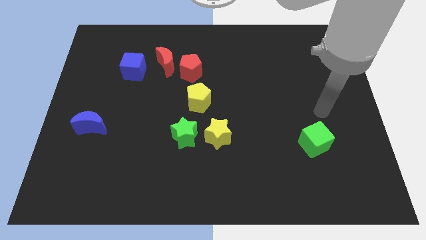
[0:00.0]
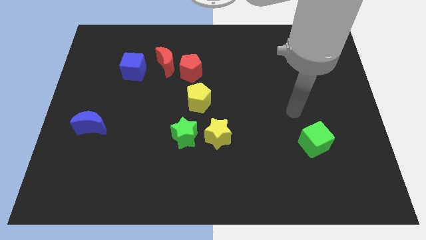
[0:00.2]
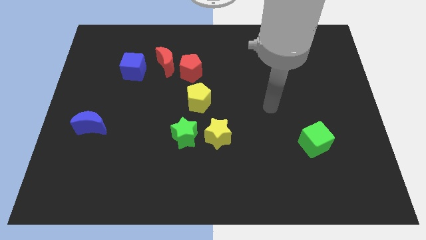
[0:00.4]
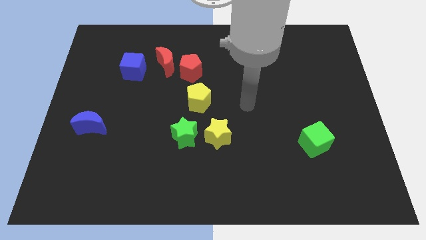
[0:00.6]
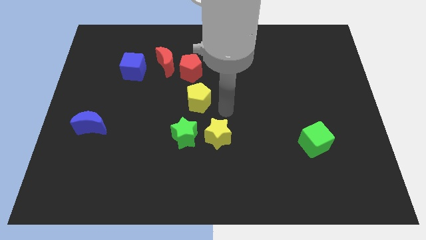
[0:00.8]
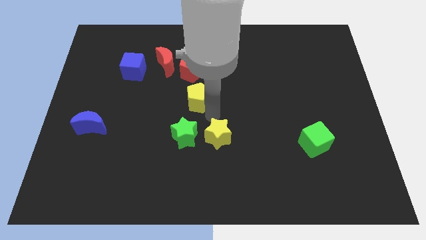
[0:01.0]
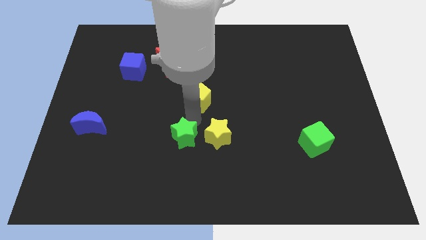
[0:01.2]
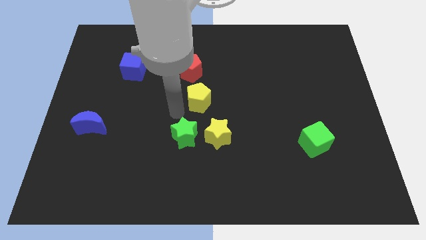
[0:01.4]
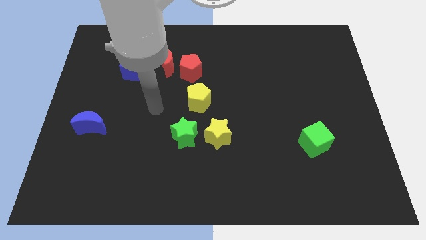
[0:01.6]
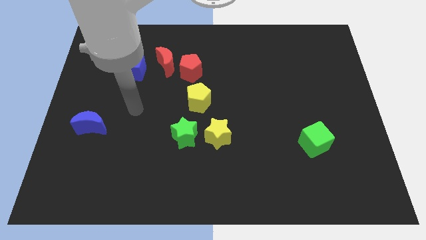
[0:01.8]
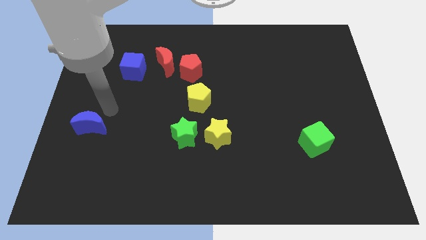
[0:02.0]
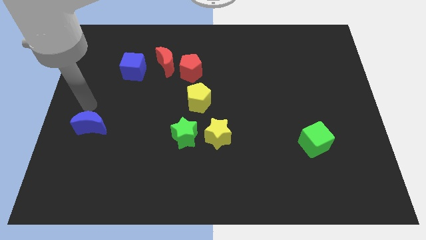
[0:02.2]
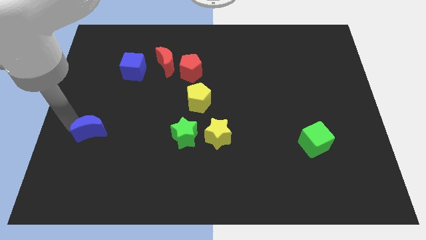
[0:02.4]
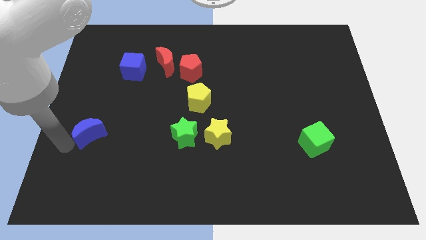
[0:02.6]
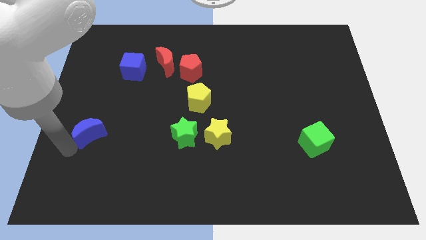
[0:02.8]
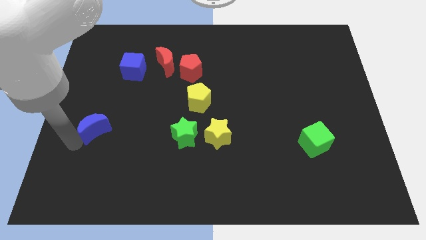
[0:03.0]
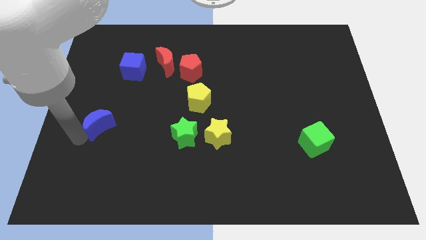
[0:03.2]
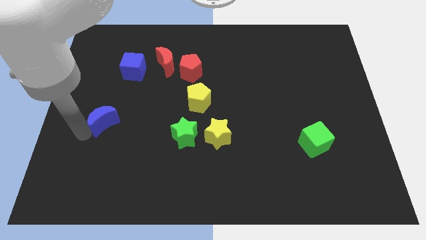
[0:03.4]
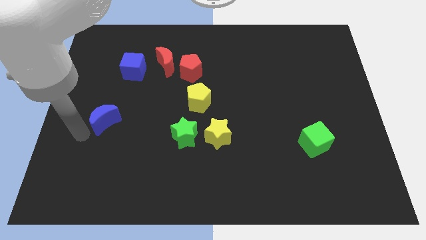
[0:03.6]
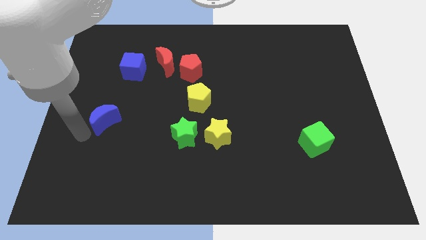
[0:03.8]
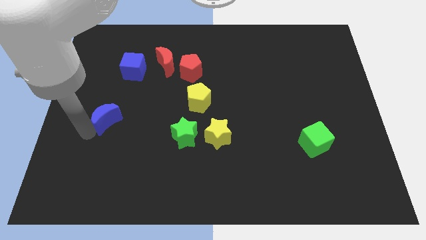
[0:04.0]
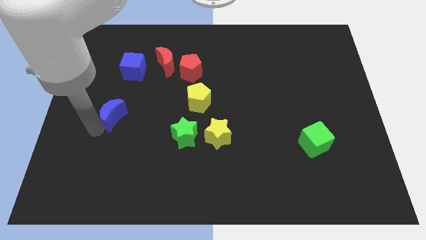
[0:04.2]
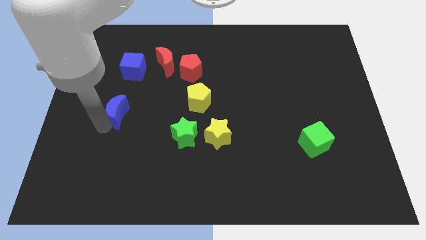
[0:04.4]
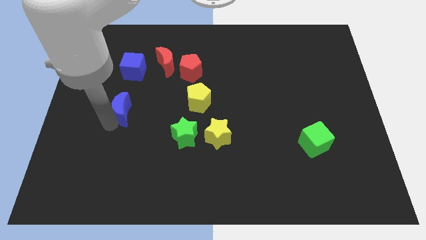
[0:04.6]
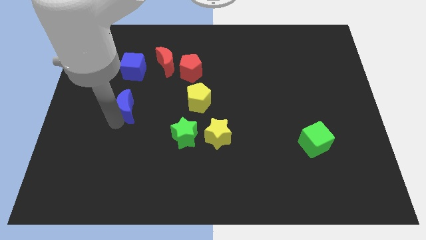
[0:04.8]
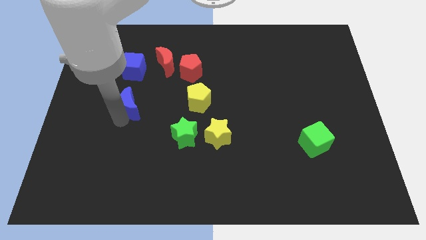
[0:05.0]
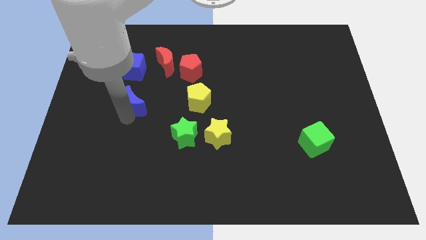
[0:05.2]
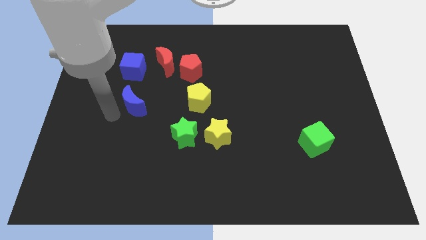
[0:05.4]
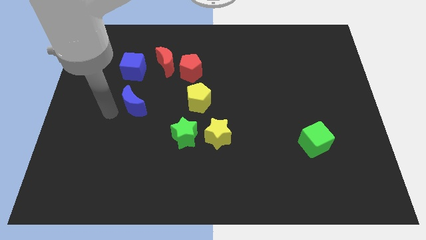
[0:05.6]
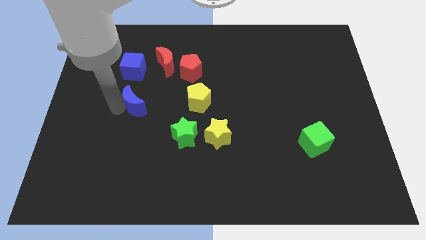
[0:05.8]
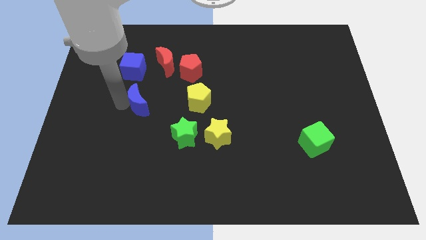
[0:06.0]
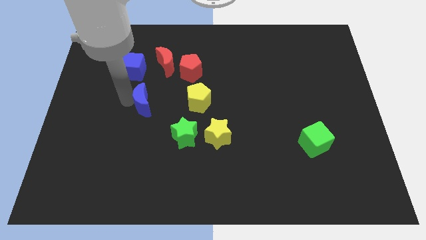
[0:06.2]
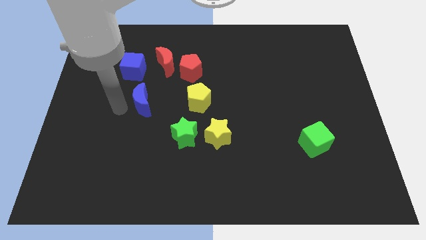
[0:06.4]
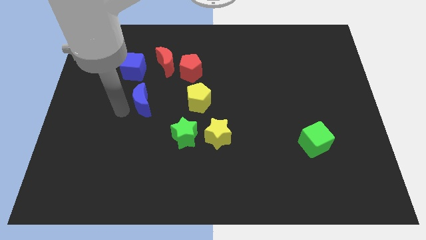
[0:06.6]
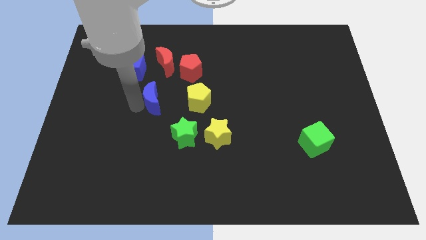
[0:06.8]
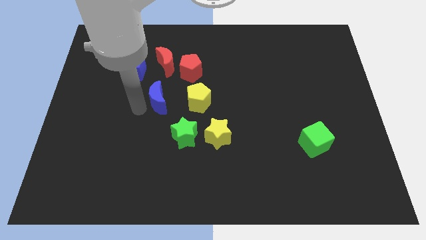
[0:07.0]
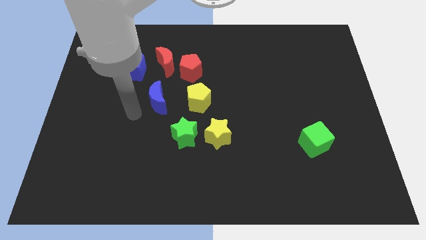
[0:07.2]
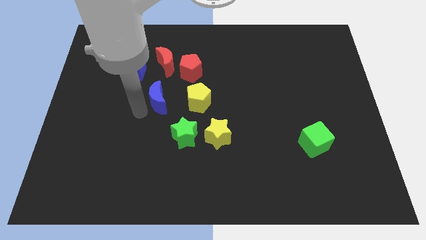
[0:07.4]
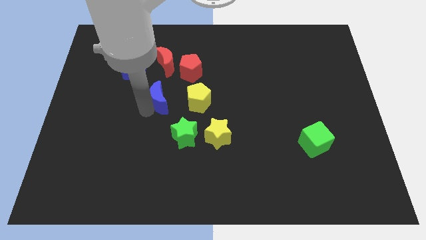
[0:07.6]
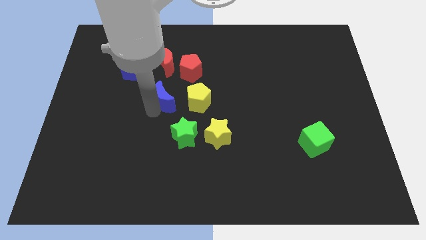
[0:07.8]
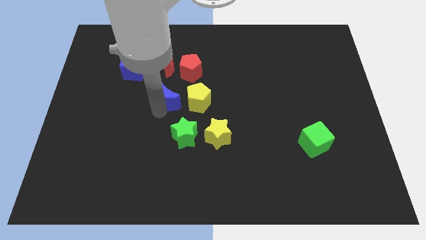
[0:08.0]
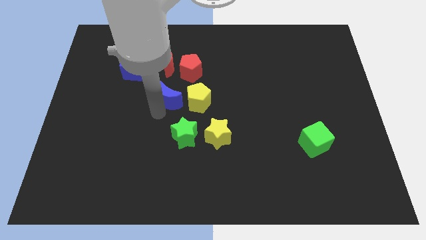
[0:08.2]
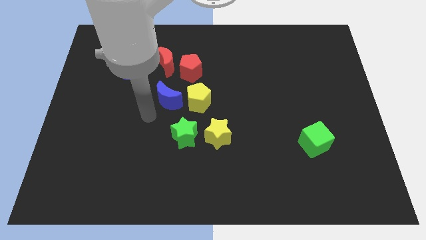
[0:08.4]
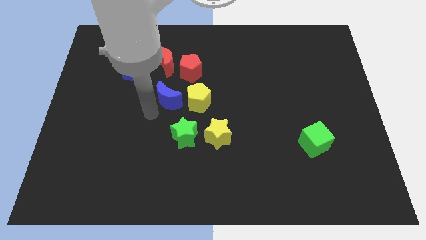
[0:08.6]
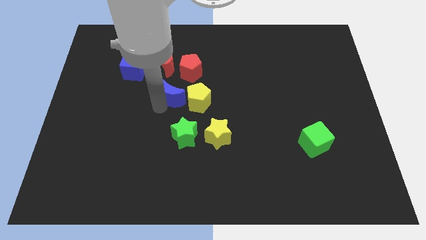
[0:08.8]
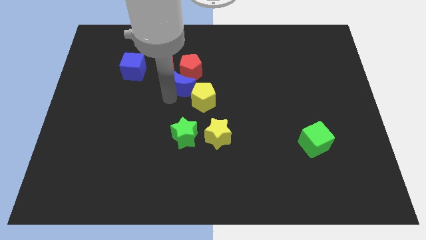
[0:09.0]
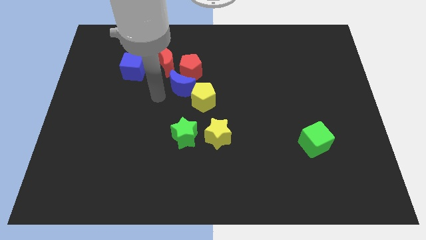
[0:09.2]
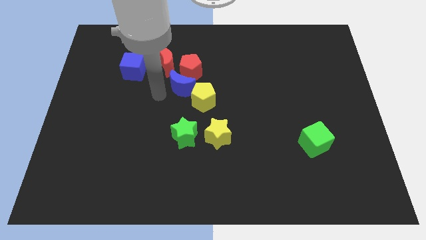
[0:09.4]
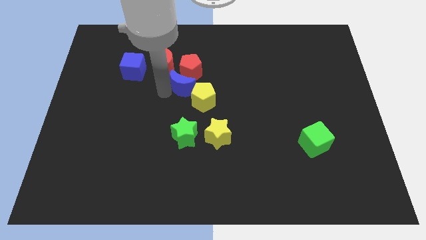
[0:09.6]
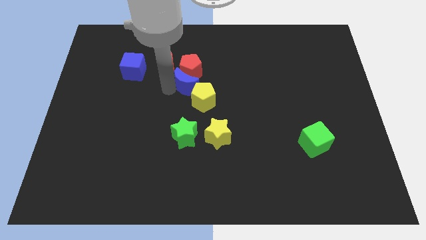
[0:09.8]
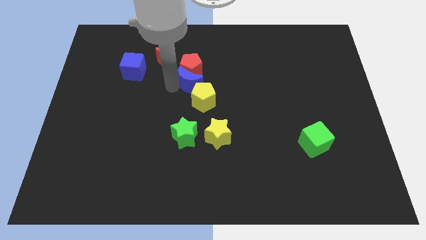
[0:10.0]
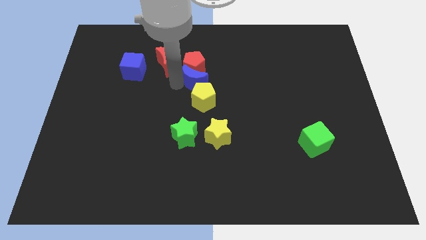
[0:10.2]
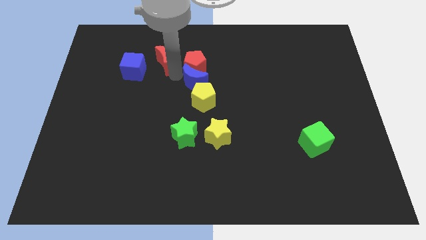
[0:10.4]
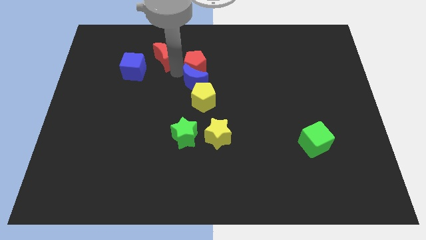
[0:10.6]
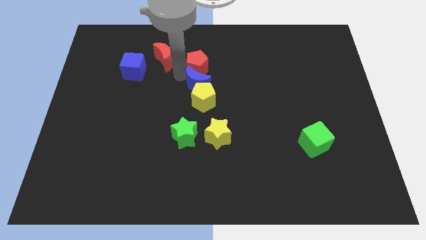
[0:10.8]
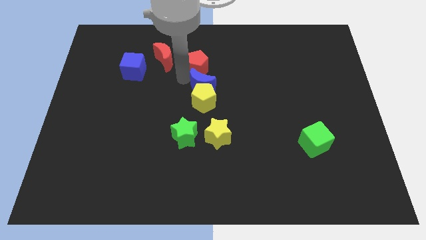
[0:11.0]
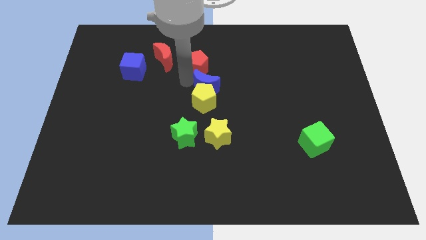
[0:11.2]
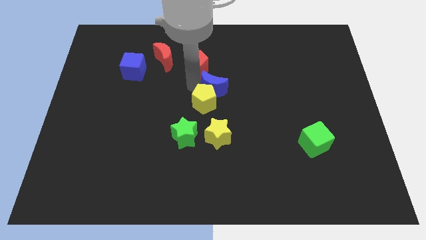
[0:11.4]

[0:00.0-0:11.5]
push the blue moon right

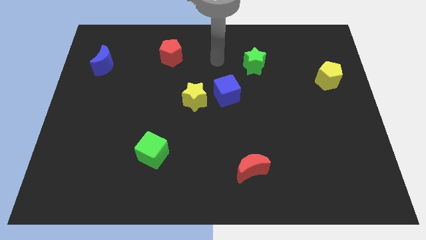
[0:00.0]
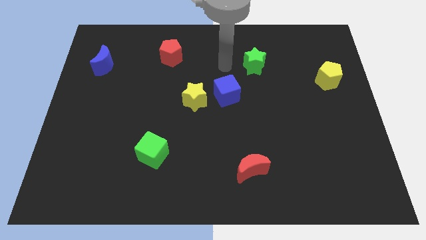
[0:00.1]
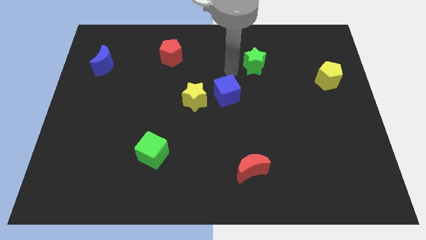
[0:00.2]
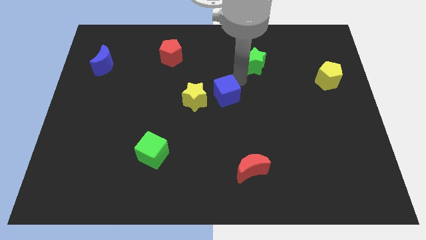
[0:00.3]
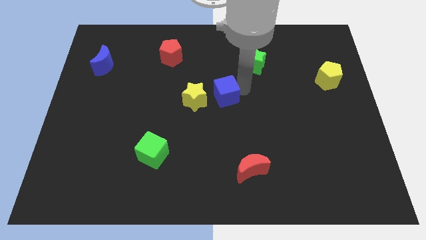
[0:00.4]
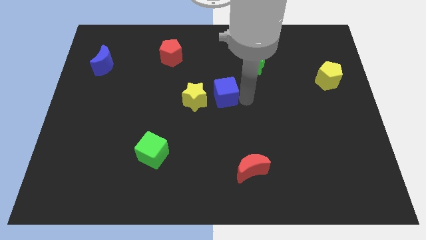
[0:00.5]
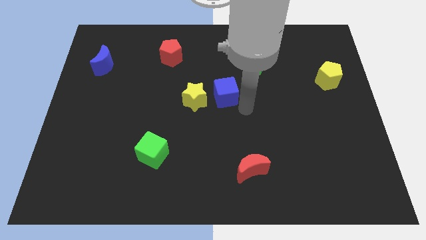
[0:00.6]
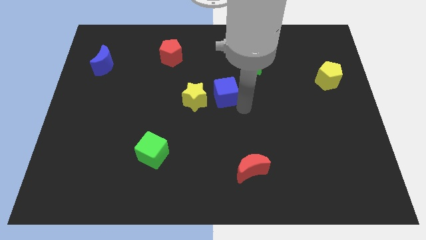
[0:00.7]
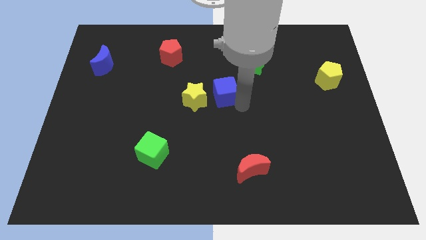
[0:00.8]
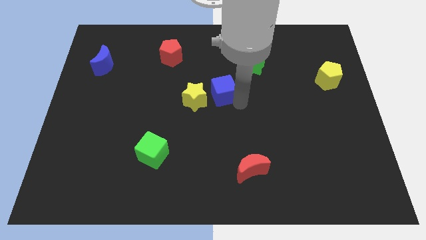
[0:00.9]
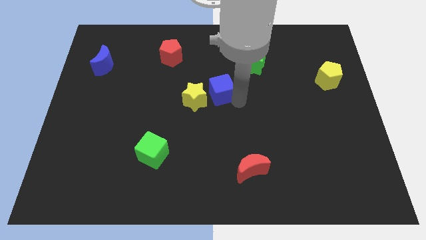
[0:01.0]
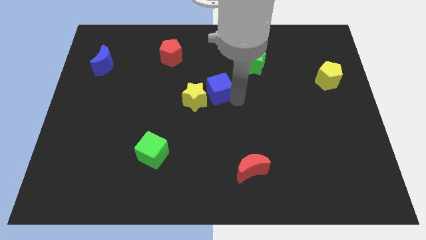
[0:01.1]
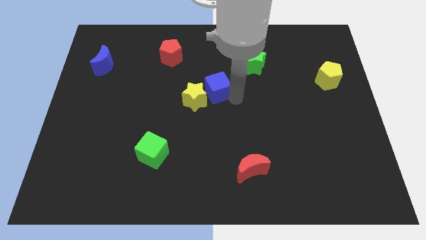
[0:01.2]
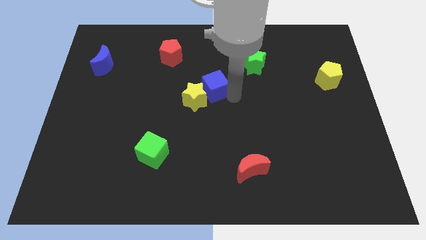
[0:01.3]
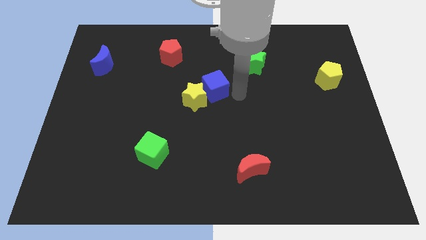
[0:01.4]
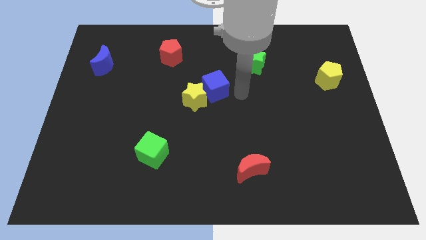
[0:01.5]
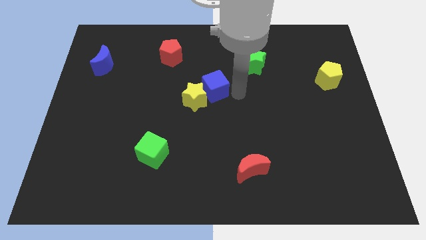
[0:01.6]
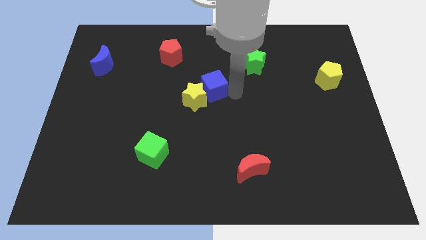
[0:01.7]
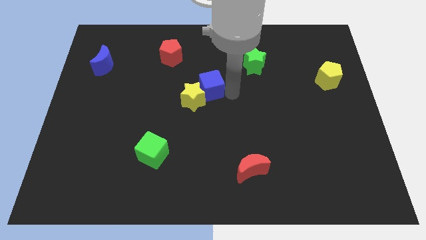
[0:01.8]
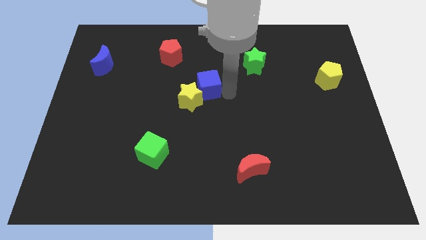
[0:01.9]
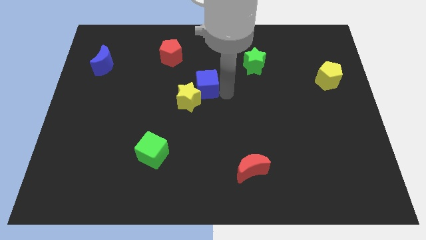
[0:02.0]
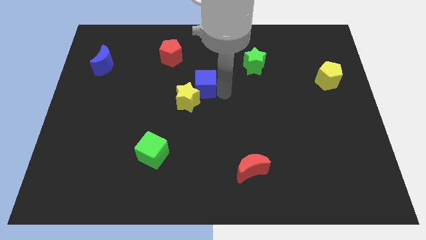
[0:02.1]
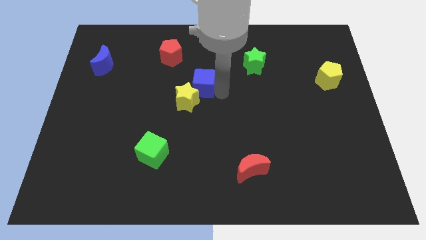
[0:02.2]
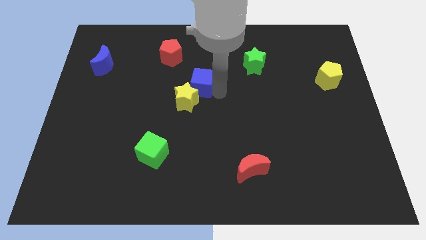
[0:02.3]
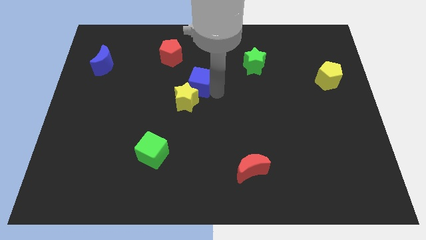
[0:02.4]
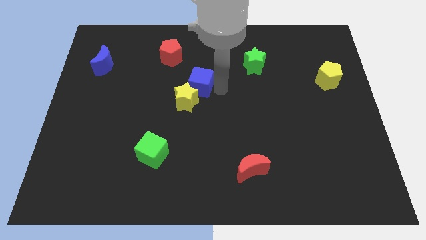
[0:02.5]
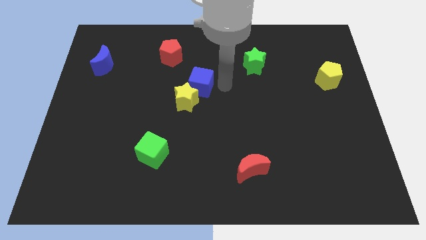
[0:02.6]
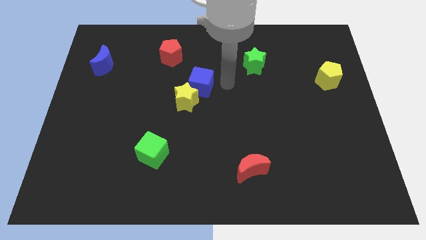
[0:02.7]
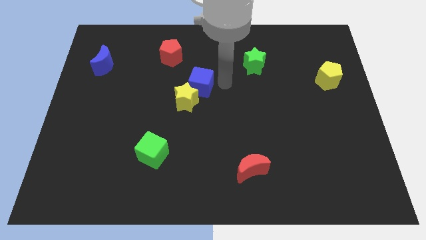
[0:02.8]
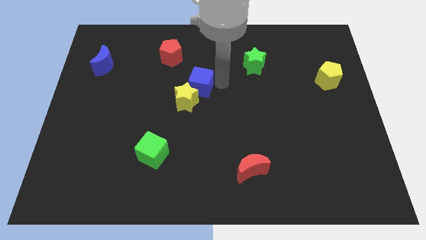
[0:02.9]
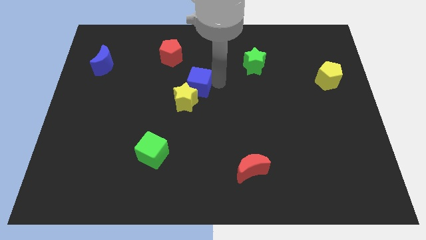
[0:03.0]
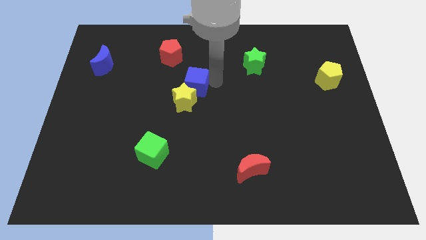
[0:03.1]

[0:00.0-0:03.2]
slide the blue cube a little left
